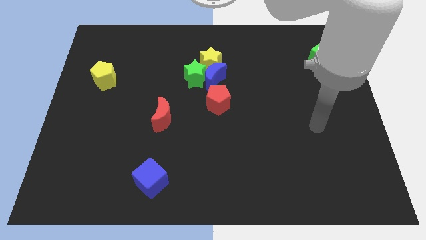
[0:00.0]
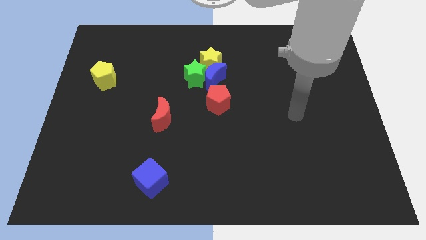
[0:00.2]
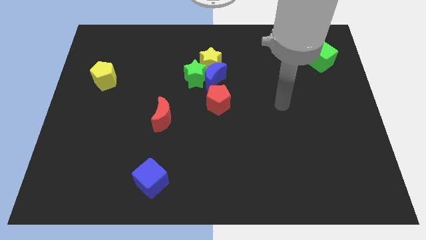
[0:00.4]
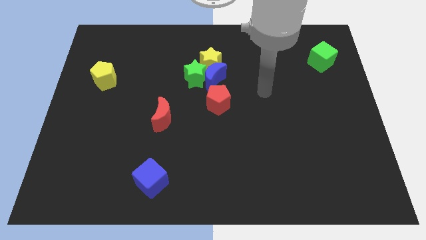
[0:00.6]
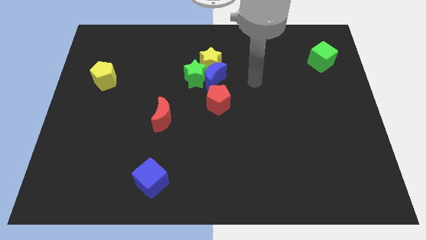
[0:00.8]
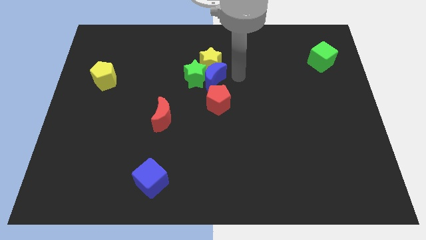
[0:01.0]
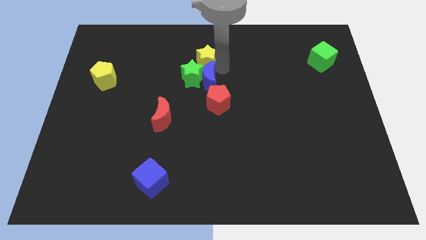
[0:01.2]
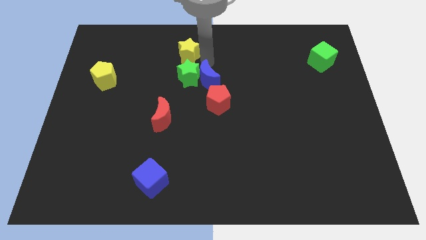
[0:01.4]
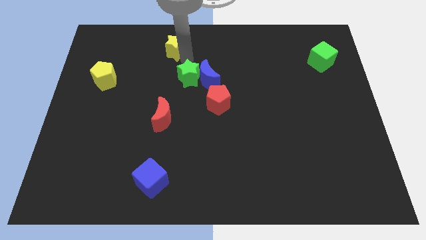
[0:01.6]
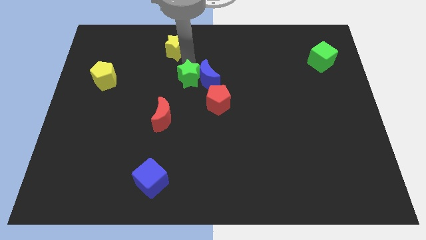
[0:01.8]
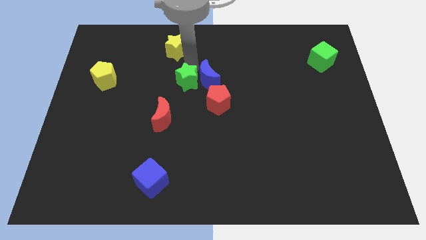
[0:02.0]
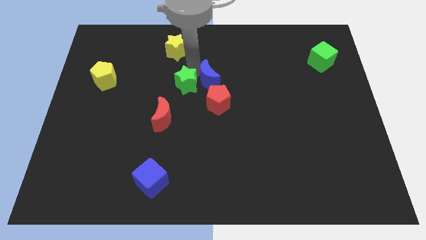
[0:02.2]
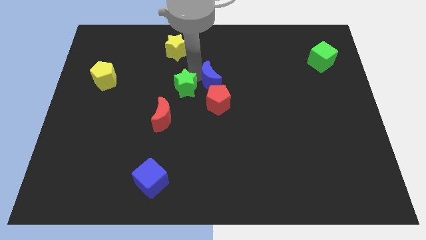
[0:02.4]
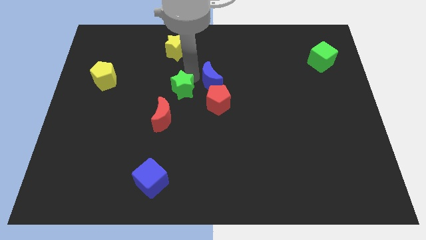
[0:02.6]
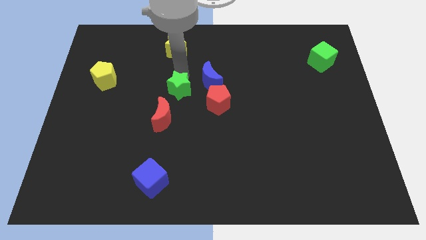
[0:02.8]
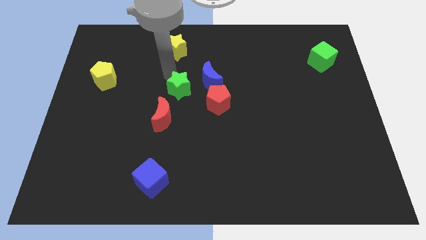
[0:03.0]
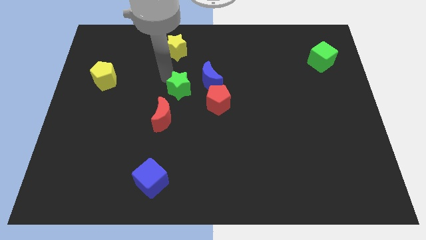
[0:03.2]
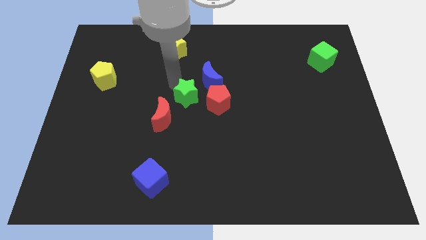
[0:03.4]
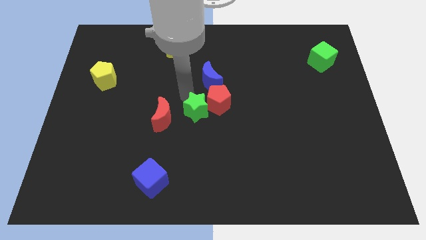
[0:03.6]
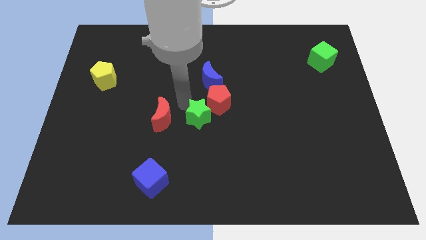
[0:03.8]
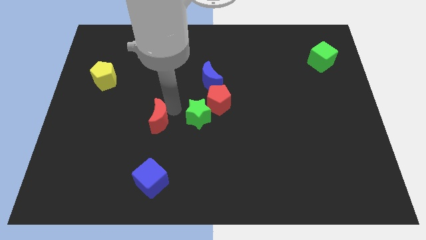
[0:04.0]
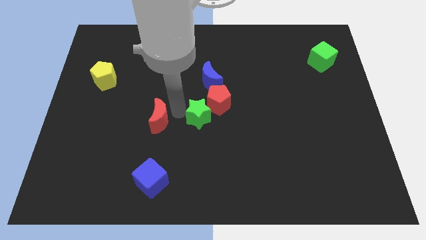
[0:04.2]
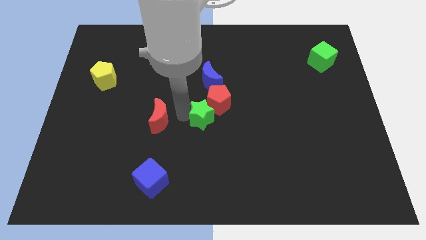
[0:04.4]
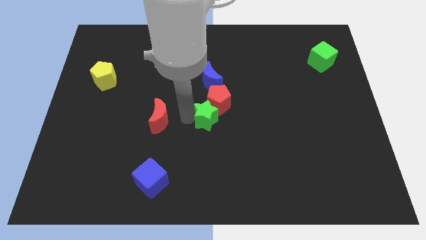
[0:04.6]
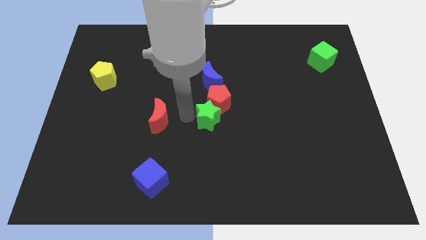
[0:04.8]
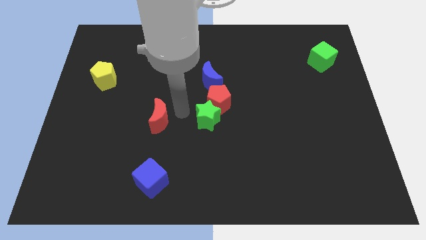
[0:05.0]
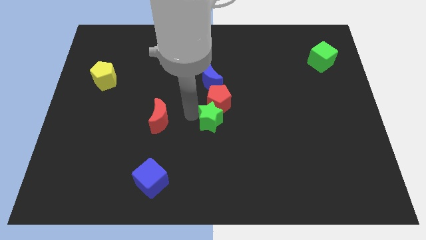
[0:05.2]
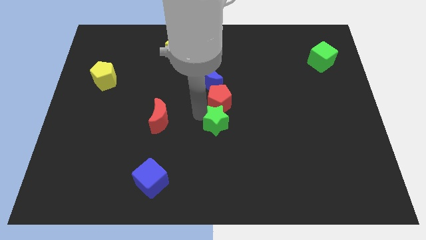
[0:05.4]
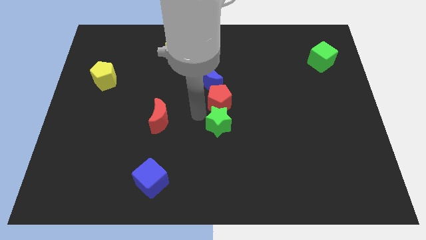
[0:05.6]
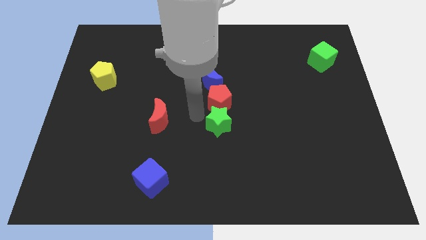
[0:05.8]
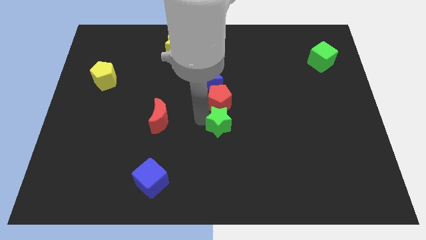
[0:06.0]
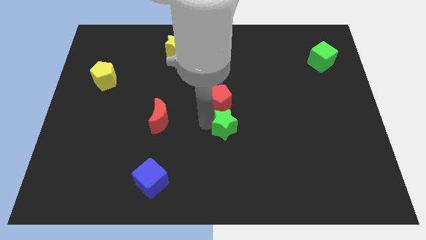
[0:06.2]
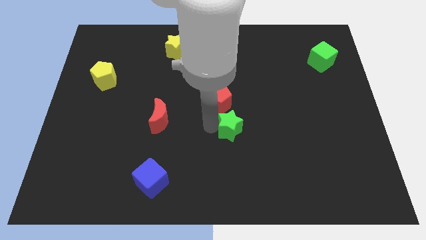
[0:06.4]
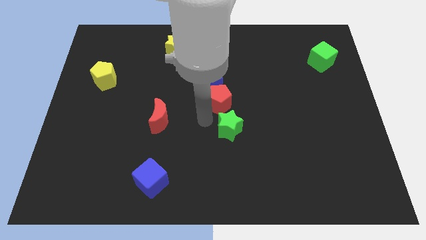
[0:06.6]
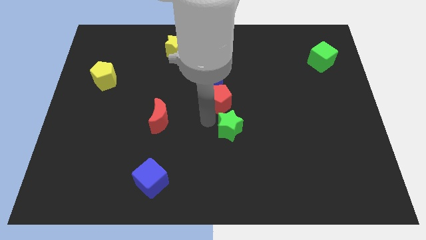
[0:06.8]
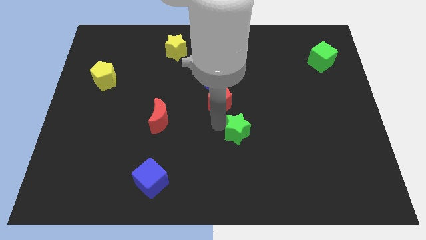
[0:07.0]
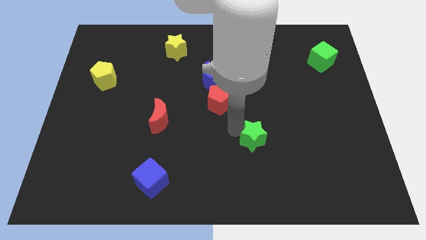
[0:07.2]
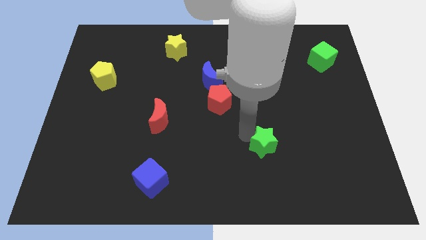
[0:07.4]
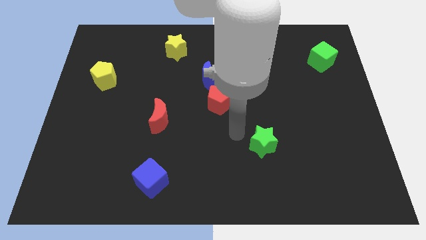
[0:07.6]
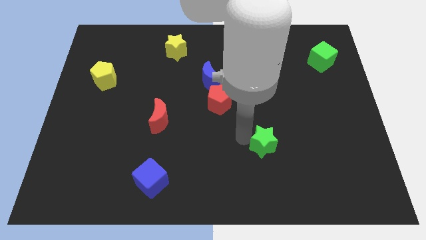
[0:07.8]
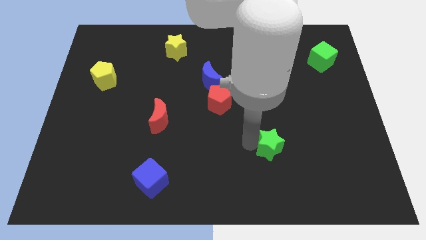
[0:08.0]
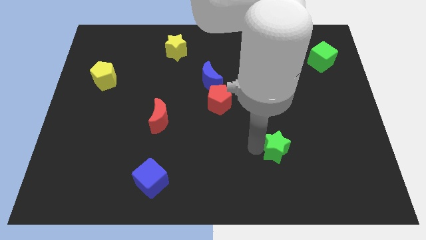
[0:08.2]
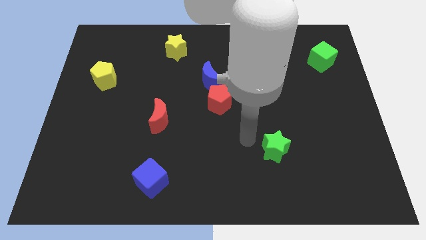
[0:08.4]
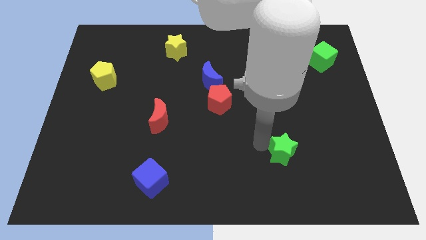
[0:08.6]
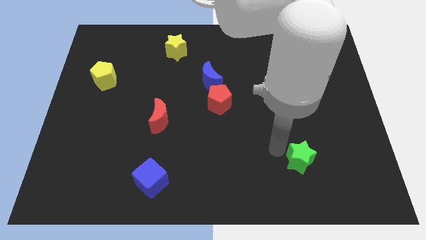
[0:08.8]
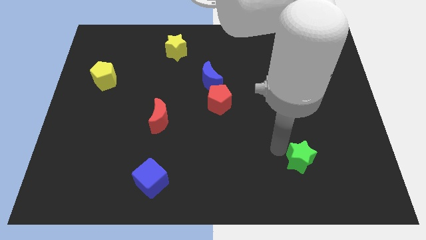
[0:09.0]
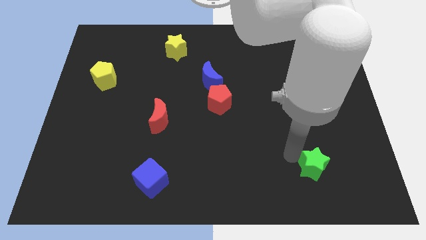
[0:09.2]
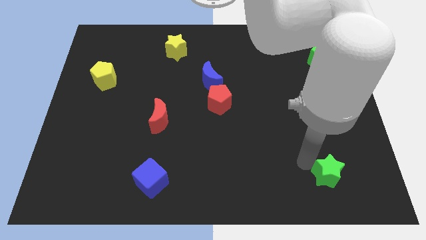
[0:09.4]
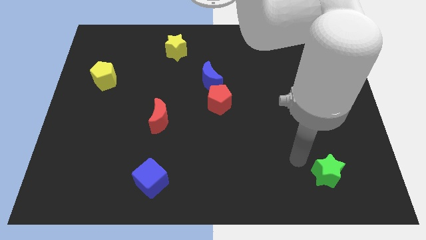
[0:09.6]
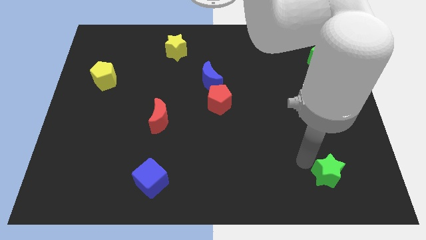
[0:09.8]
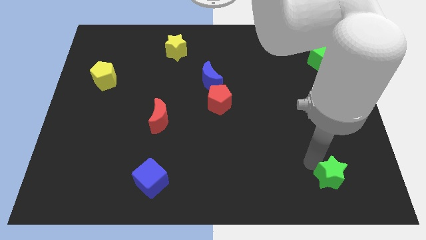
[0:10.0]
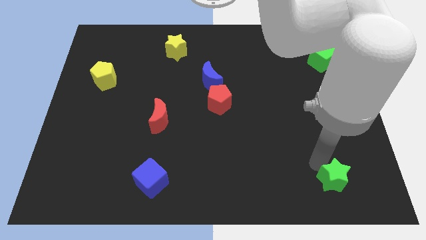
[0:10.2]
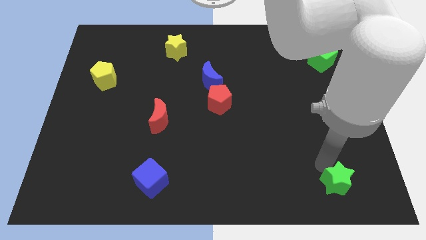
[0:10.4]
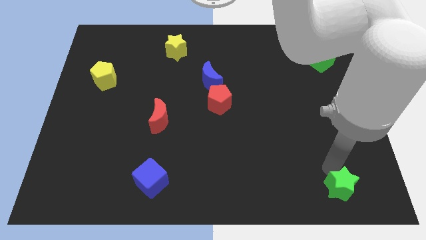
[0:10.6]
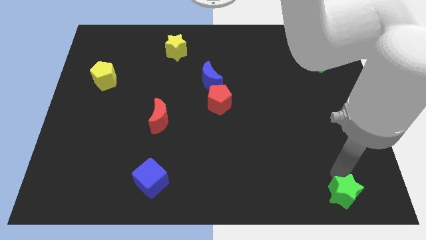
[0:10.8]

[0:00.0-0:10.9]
put the green star to the bottom right of the board
